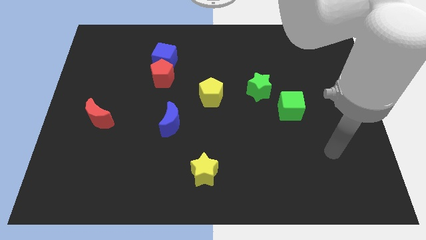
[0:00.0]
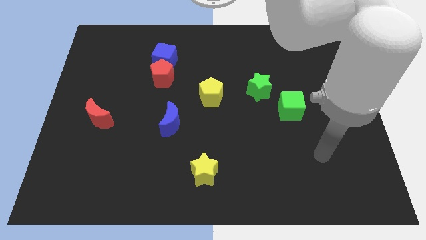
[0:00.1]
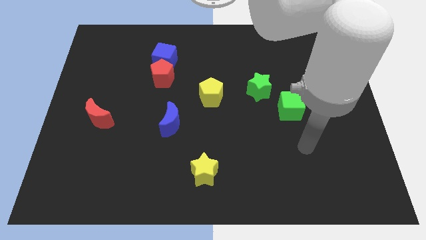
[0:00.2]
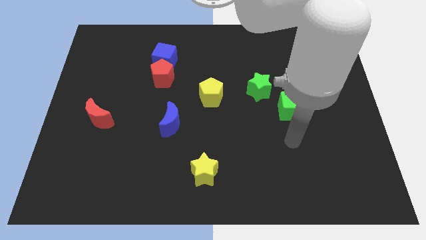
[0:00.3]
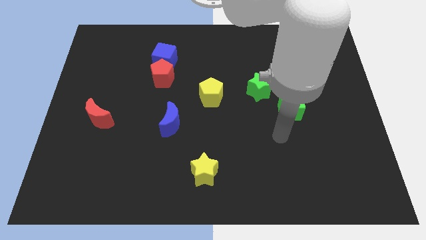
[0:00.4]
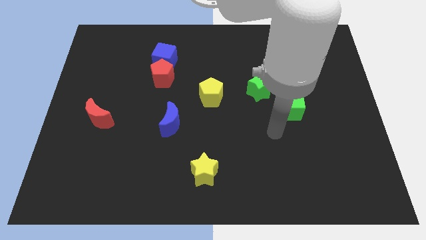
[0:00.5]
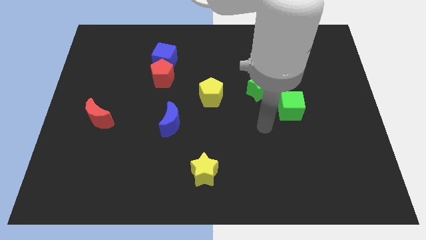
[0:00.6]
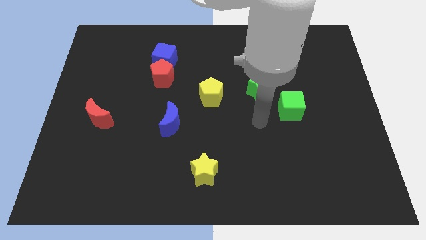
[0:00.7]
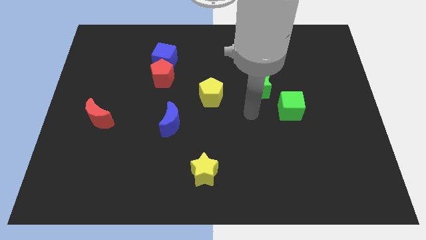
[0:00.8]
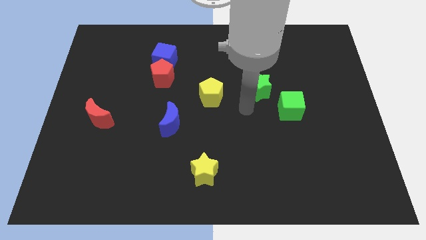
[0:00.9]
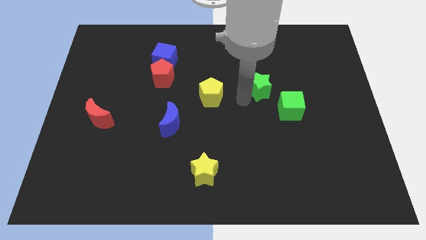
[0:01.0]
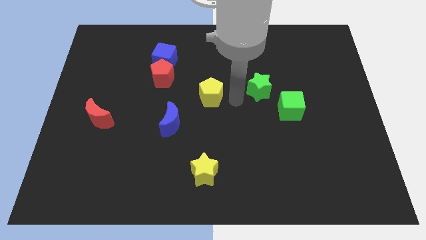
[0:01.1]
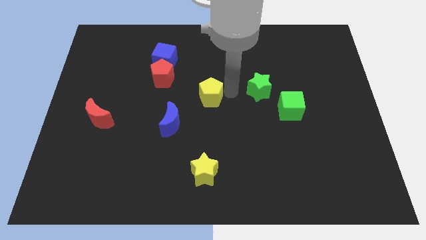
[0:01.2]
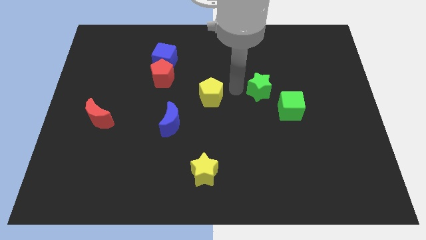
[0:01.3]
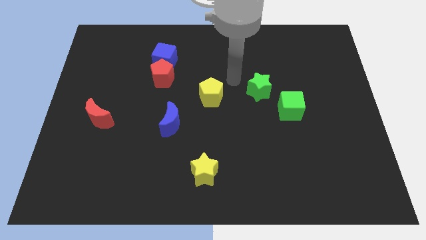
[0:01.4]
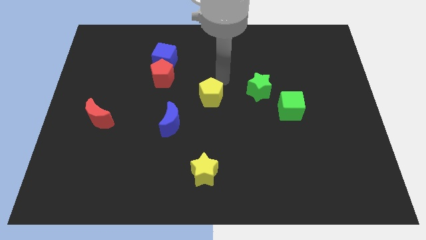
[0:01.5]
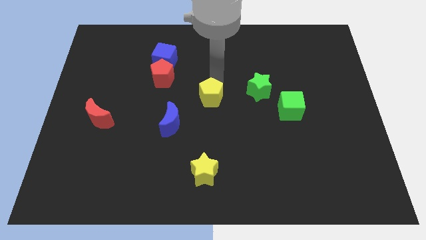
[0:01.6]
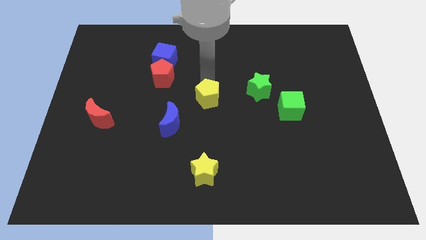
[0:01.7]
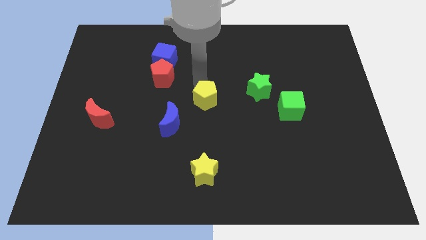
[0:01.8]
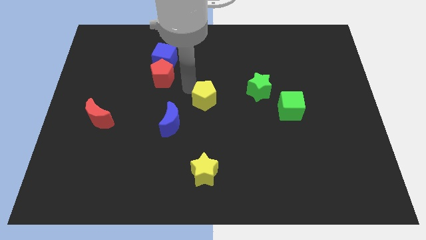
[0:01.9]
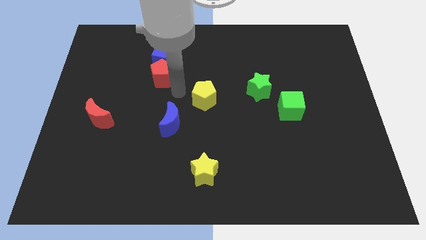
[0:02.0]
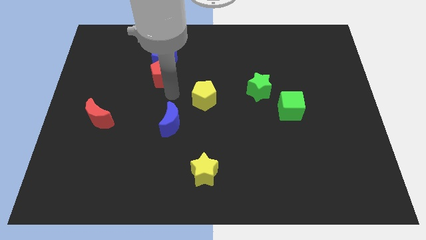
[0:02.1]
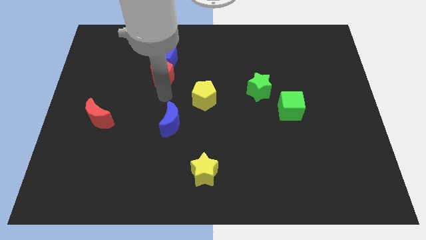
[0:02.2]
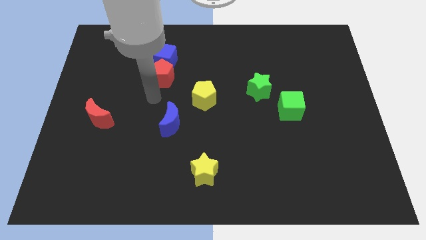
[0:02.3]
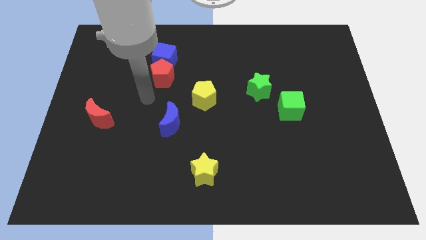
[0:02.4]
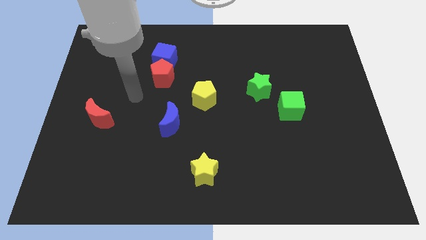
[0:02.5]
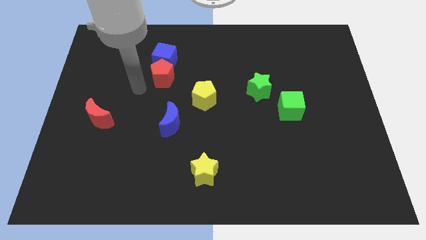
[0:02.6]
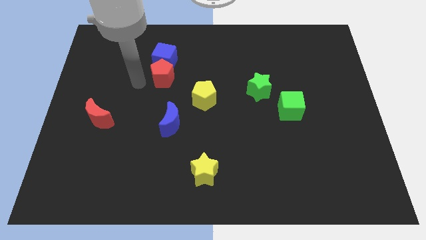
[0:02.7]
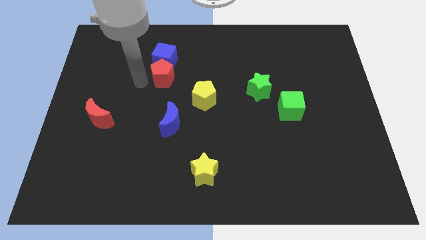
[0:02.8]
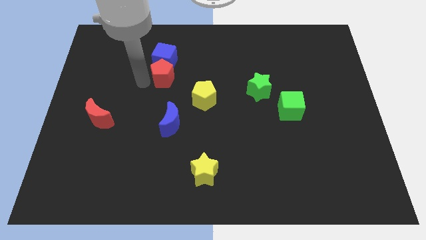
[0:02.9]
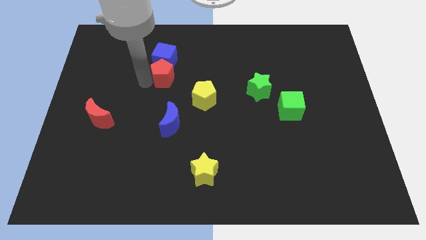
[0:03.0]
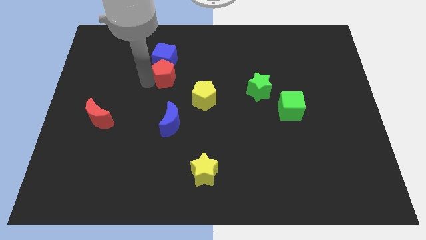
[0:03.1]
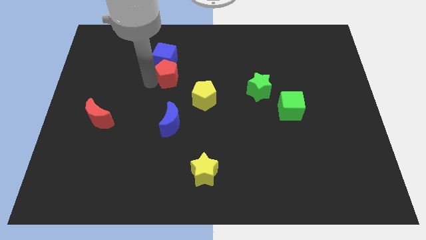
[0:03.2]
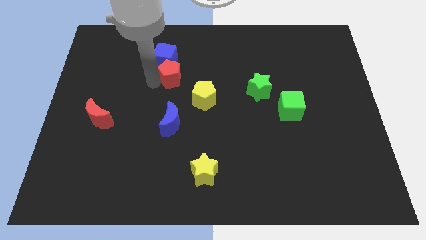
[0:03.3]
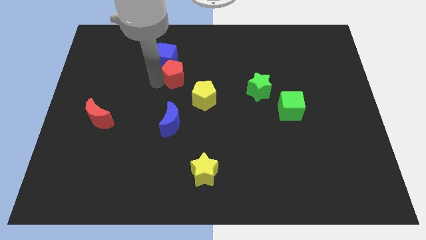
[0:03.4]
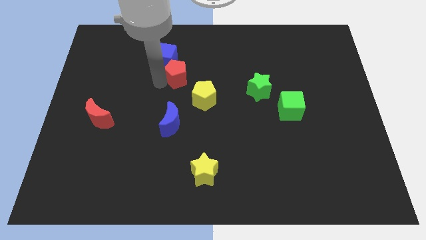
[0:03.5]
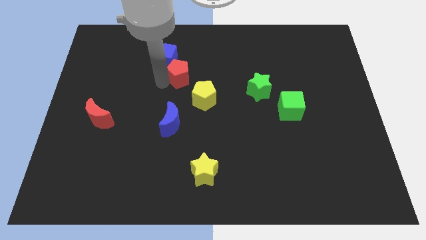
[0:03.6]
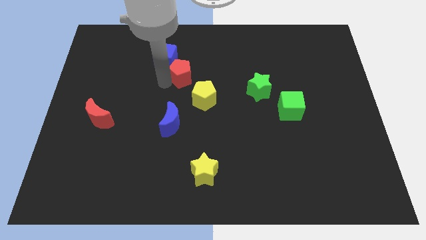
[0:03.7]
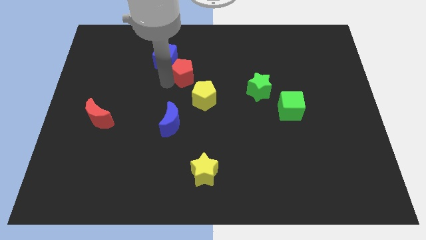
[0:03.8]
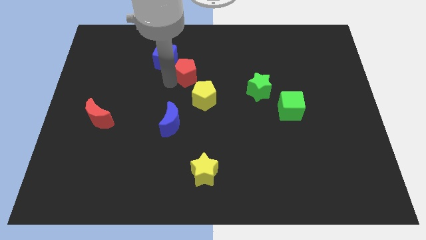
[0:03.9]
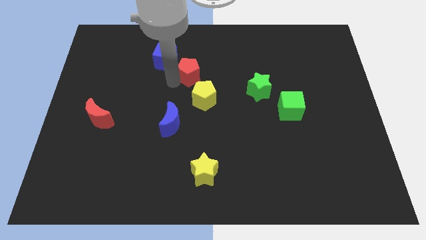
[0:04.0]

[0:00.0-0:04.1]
slide the red pentagon to the right slightly

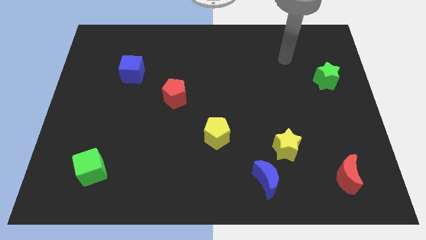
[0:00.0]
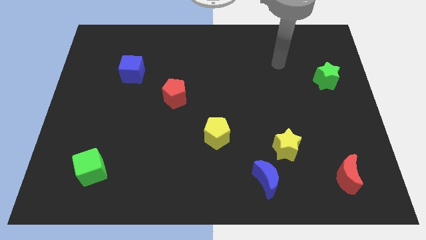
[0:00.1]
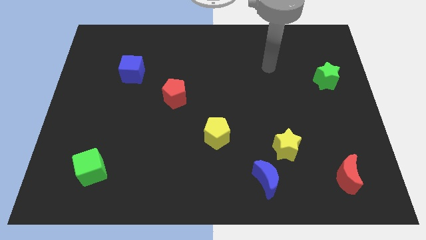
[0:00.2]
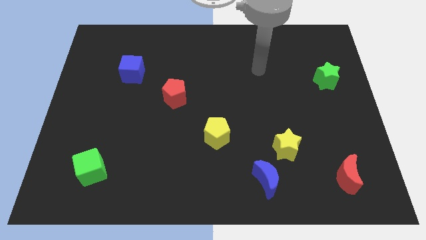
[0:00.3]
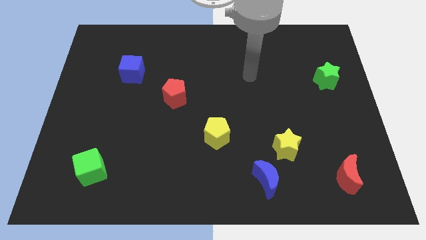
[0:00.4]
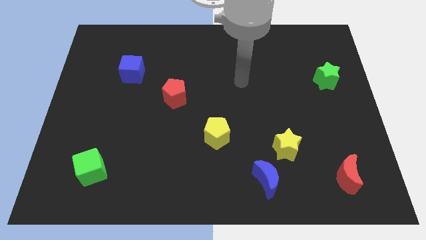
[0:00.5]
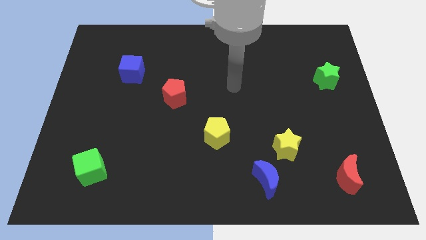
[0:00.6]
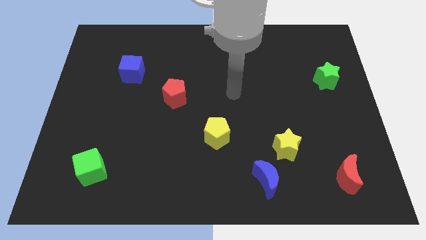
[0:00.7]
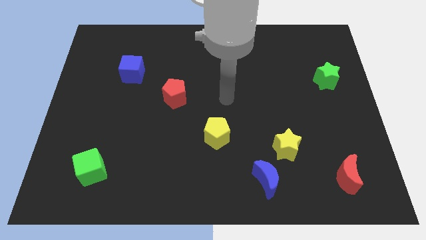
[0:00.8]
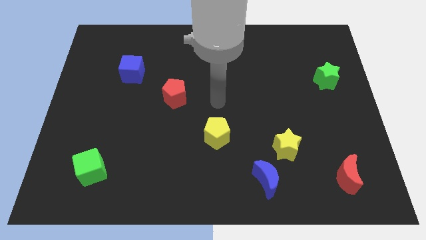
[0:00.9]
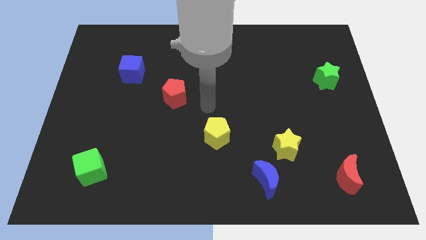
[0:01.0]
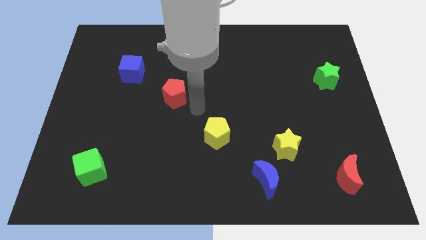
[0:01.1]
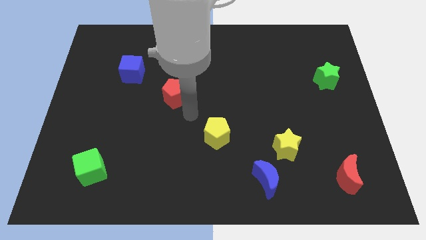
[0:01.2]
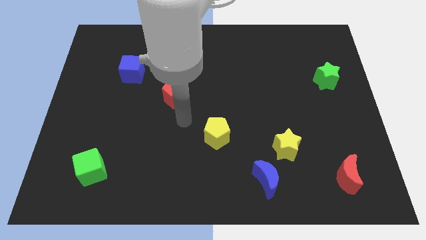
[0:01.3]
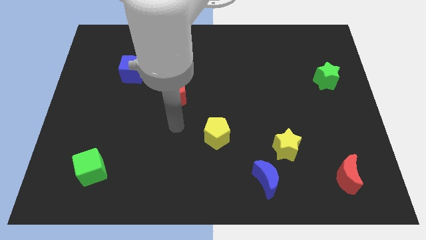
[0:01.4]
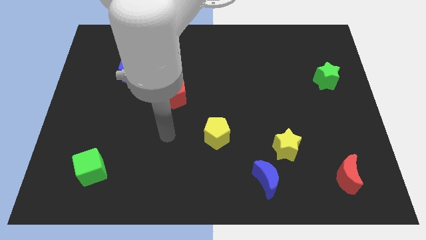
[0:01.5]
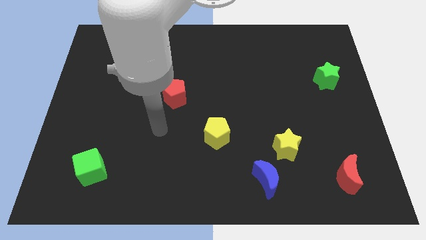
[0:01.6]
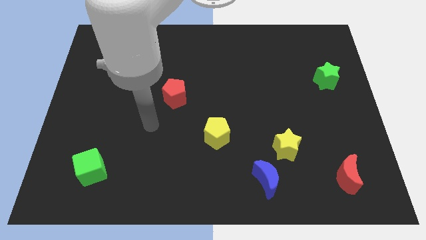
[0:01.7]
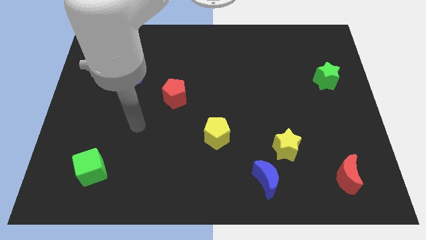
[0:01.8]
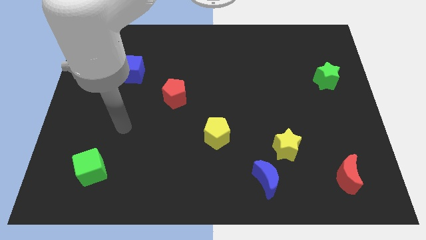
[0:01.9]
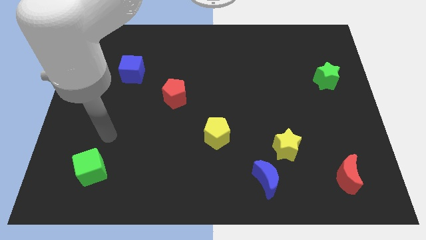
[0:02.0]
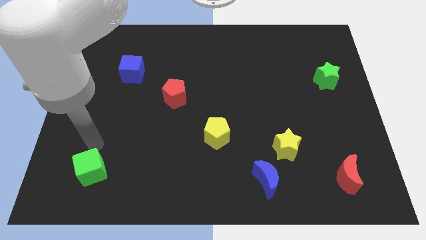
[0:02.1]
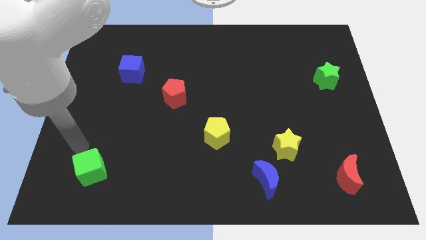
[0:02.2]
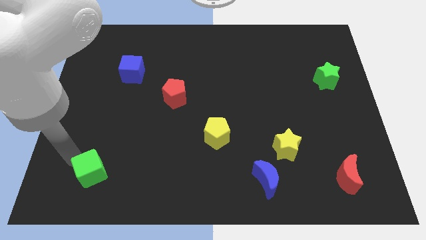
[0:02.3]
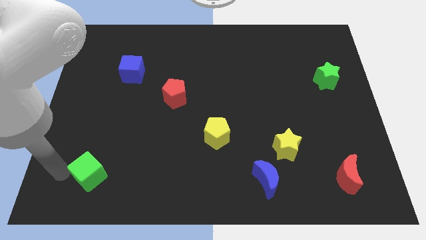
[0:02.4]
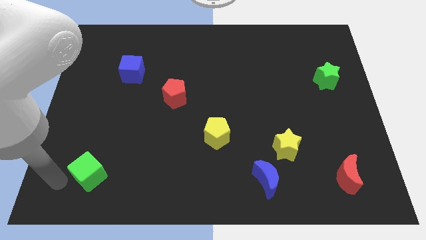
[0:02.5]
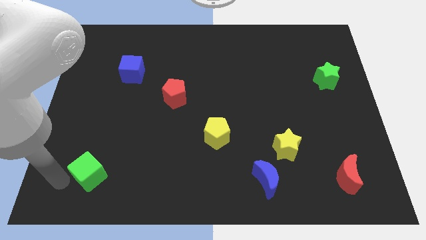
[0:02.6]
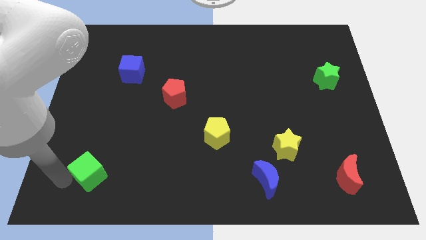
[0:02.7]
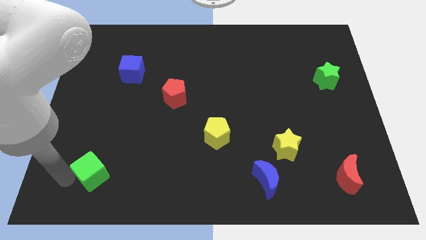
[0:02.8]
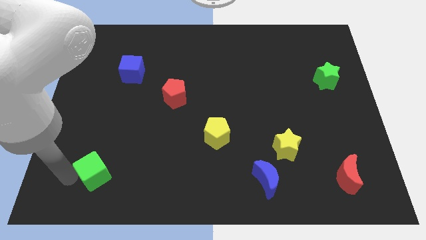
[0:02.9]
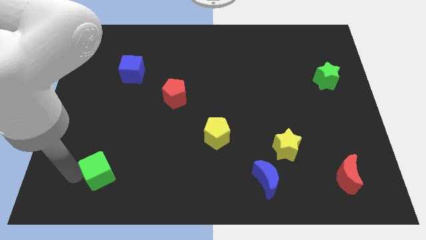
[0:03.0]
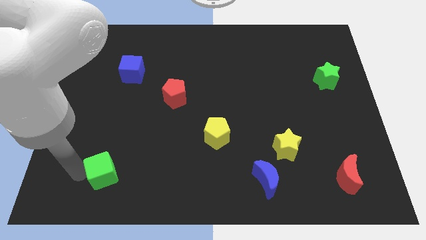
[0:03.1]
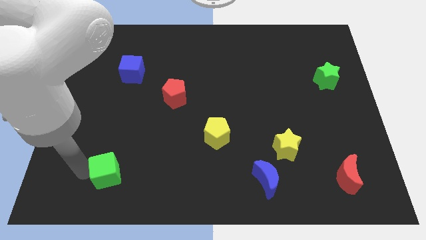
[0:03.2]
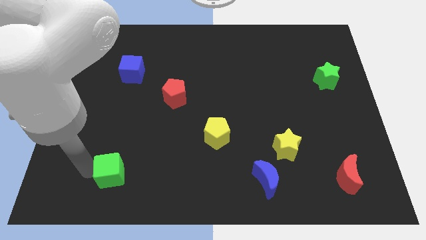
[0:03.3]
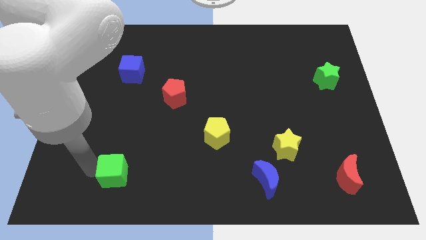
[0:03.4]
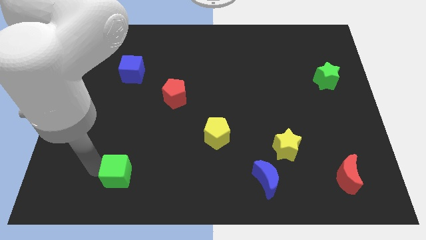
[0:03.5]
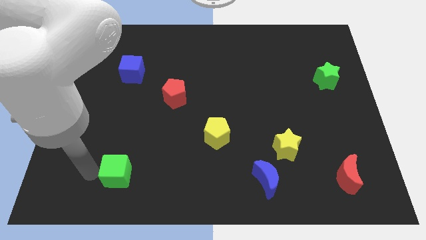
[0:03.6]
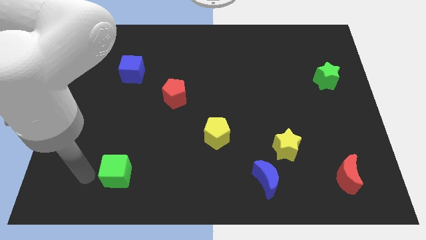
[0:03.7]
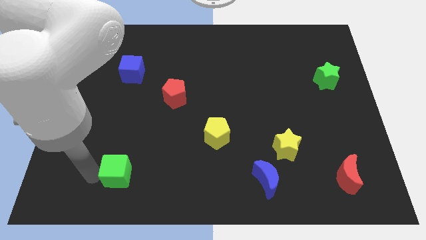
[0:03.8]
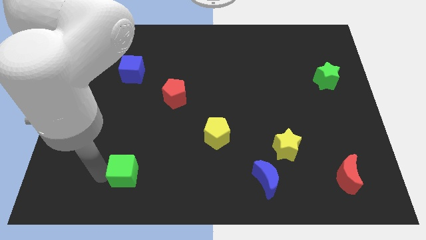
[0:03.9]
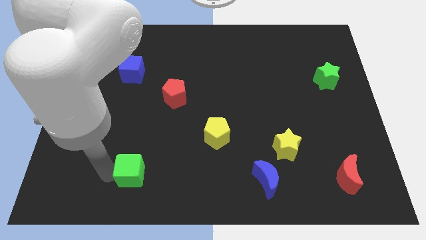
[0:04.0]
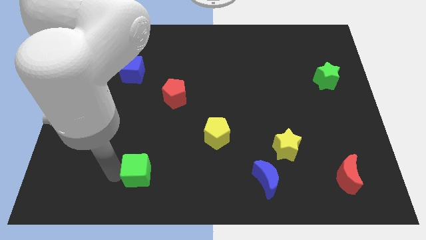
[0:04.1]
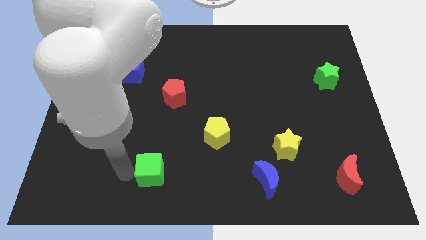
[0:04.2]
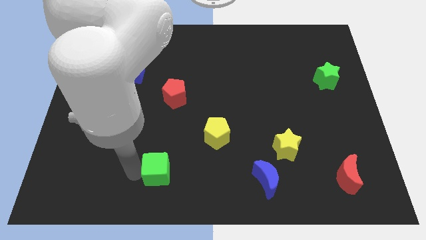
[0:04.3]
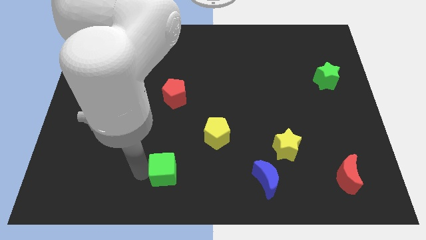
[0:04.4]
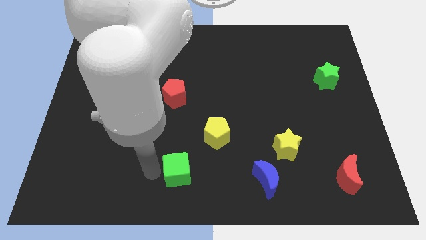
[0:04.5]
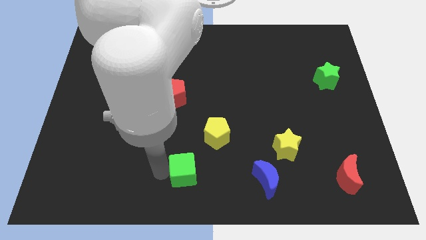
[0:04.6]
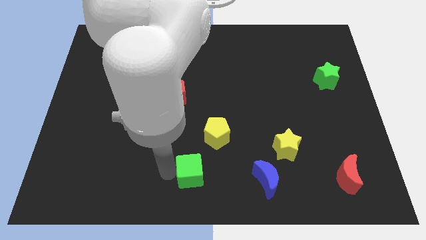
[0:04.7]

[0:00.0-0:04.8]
slide the green cube right
